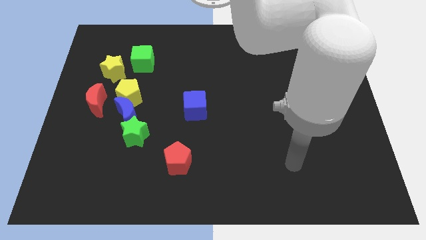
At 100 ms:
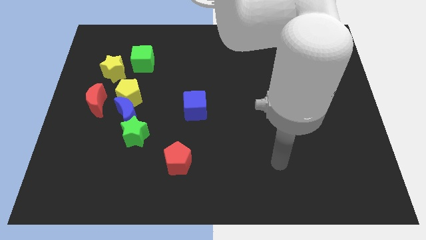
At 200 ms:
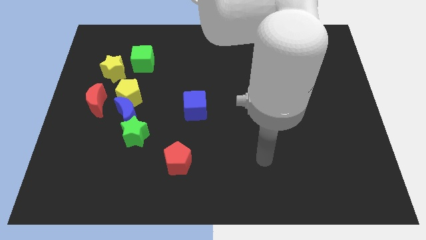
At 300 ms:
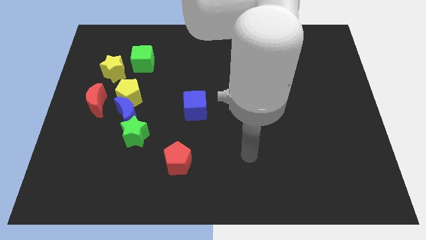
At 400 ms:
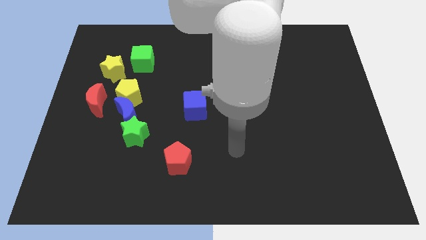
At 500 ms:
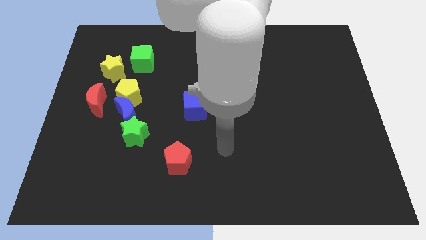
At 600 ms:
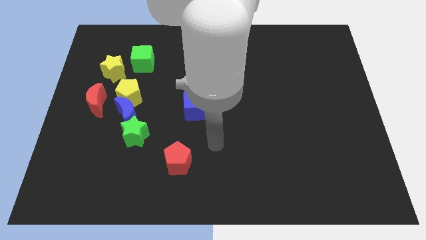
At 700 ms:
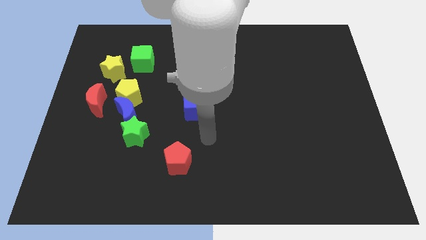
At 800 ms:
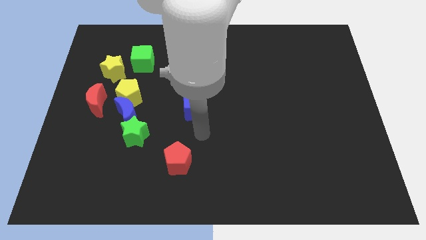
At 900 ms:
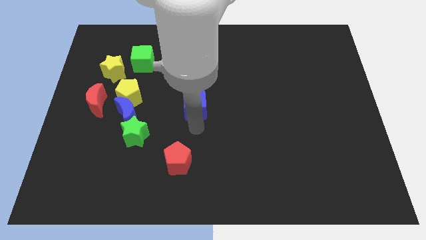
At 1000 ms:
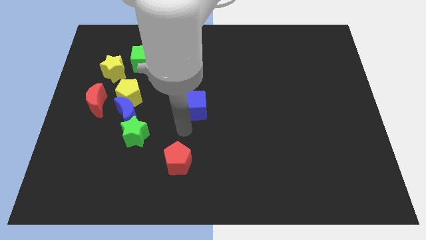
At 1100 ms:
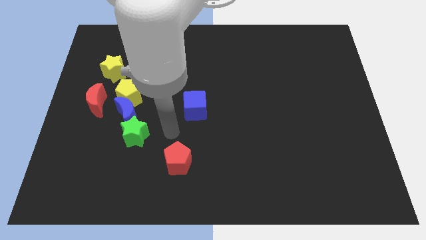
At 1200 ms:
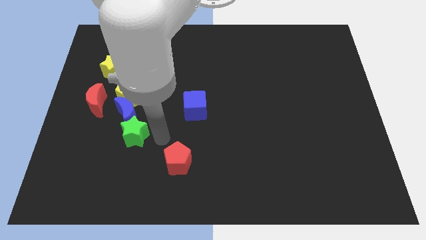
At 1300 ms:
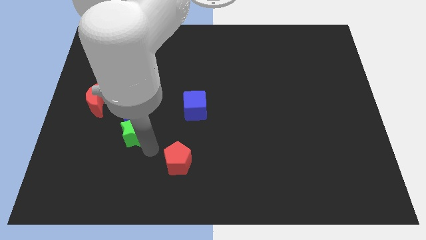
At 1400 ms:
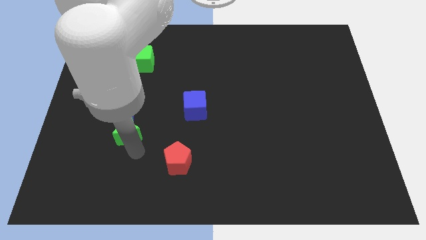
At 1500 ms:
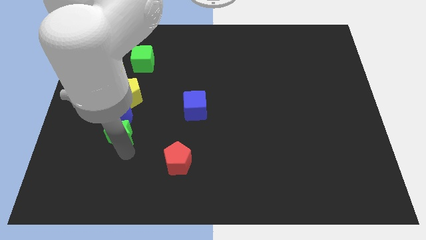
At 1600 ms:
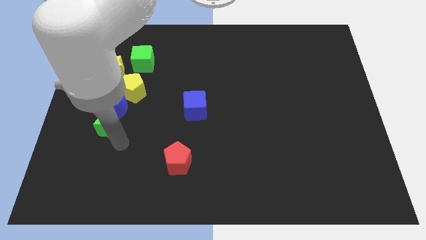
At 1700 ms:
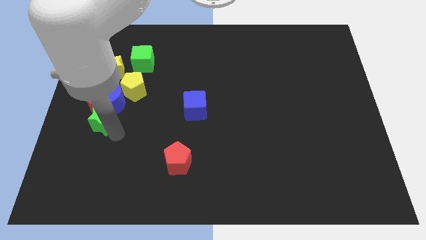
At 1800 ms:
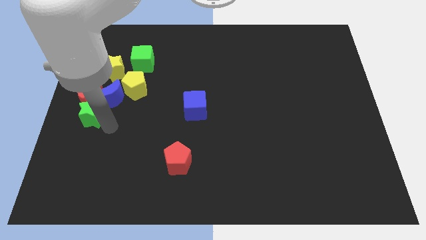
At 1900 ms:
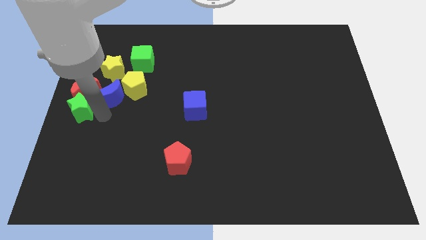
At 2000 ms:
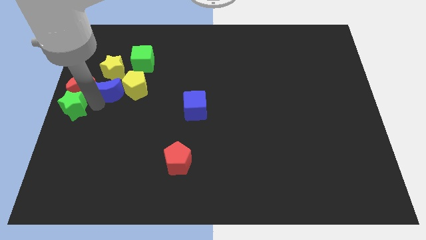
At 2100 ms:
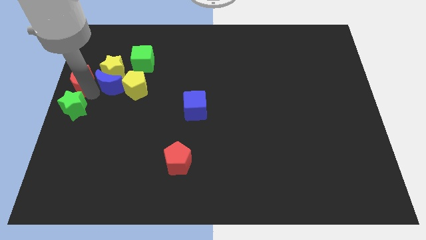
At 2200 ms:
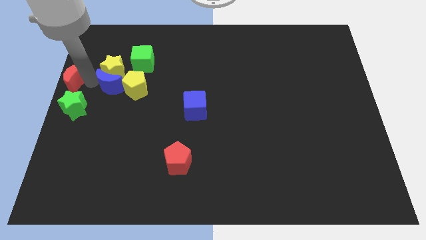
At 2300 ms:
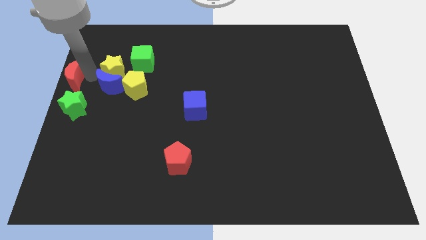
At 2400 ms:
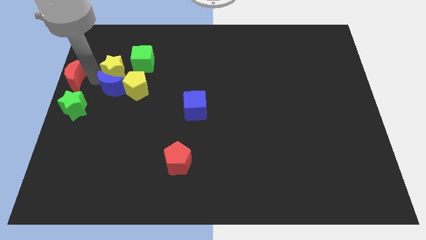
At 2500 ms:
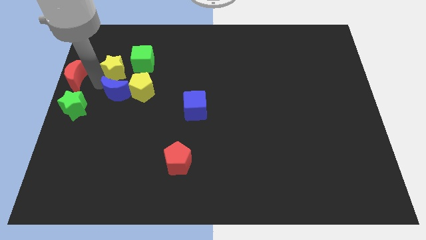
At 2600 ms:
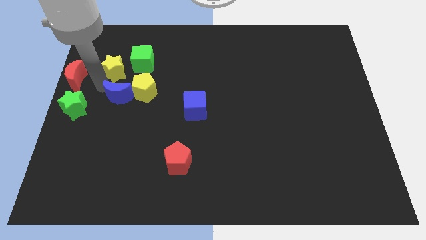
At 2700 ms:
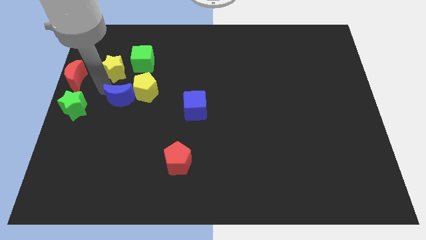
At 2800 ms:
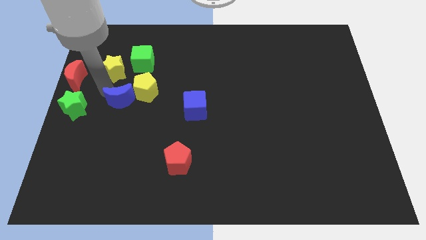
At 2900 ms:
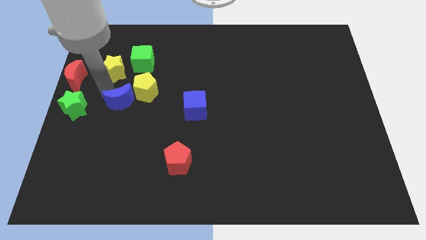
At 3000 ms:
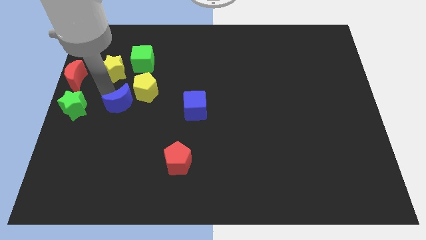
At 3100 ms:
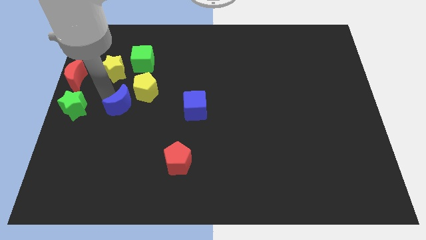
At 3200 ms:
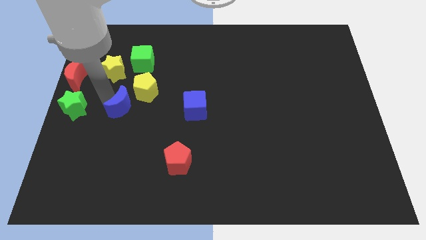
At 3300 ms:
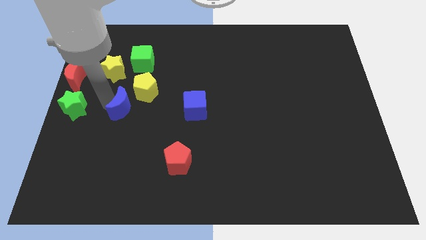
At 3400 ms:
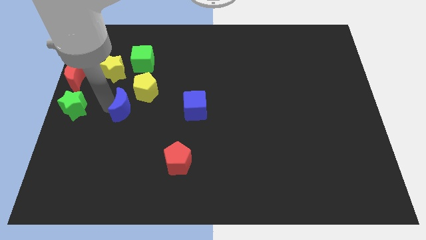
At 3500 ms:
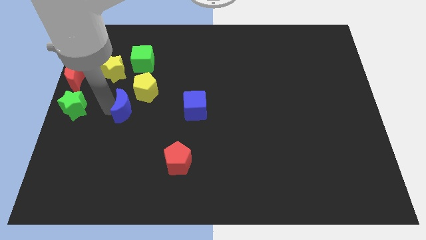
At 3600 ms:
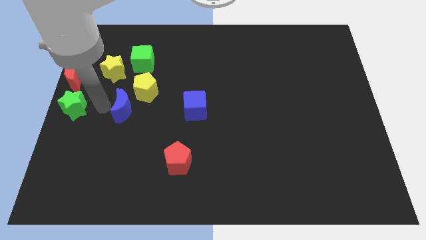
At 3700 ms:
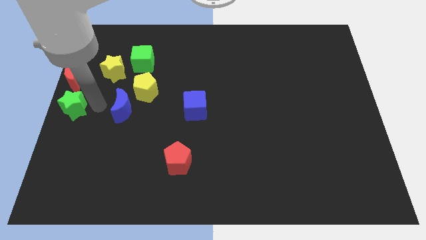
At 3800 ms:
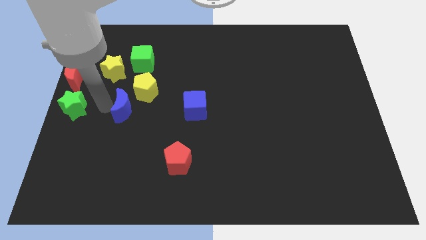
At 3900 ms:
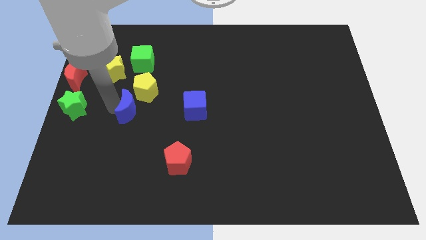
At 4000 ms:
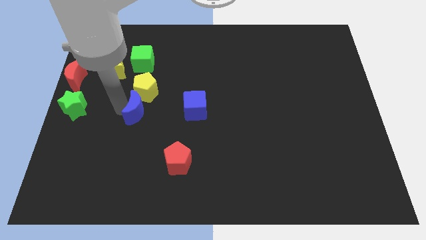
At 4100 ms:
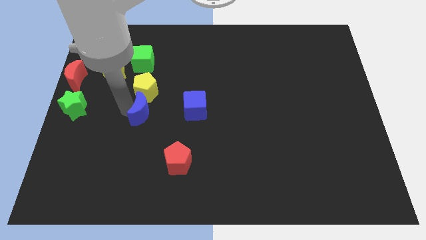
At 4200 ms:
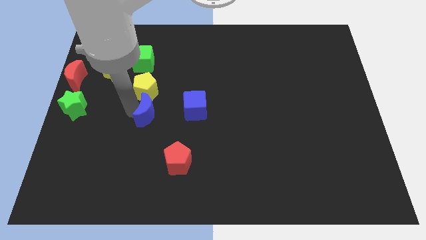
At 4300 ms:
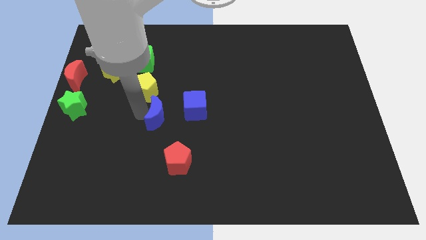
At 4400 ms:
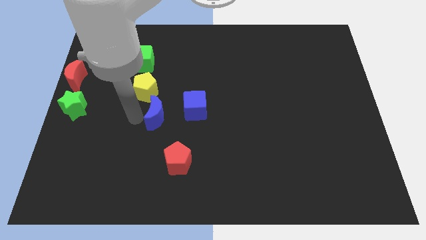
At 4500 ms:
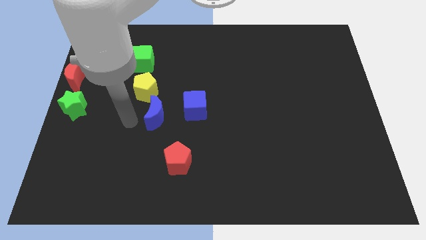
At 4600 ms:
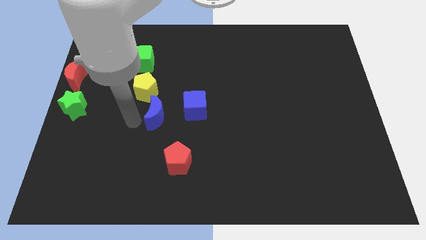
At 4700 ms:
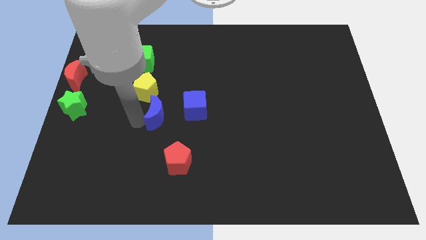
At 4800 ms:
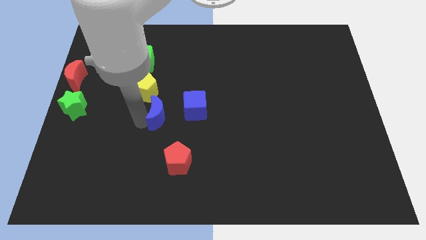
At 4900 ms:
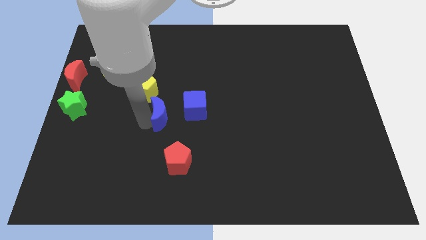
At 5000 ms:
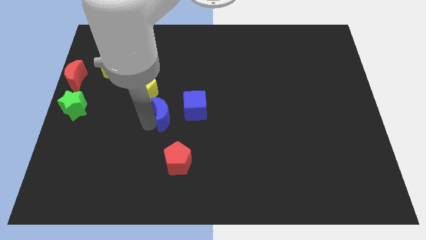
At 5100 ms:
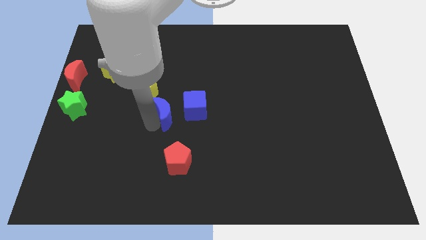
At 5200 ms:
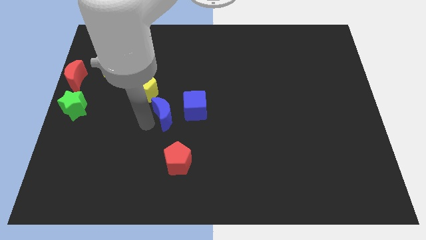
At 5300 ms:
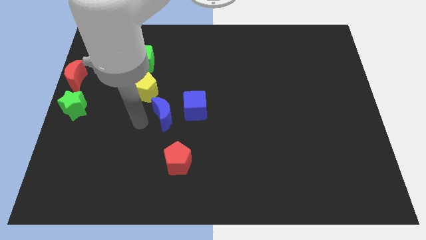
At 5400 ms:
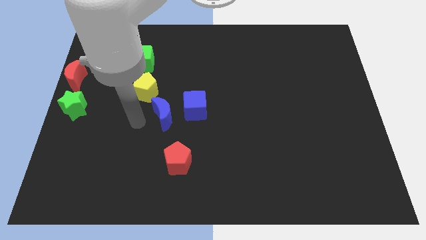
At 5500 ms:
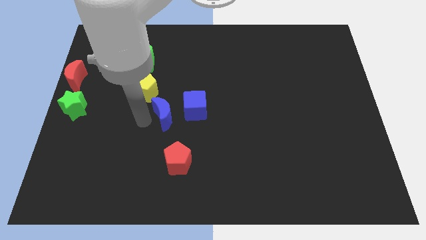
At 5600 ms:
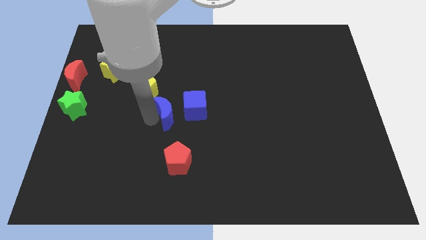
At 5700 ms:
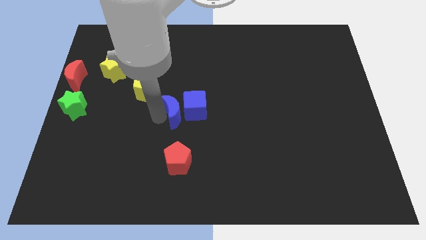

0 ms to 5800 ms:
move the blue moon close to the blue cube

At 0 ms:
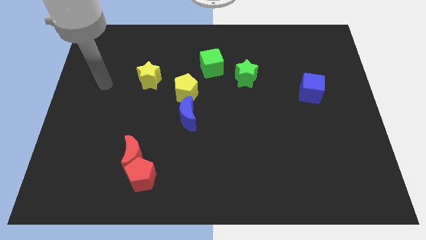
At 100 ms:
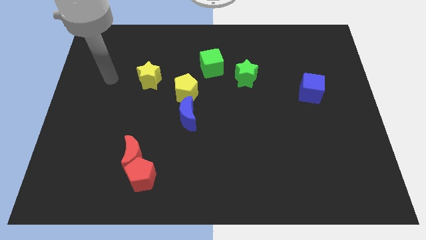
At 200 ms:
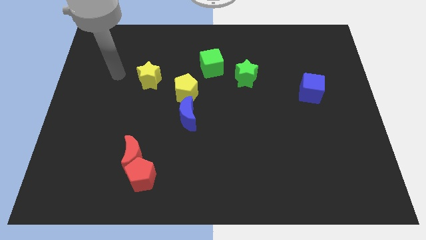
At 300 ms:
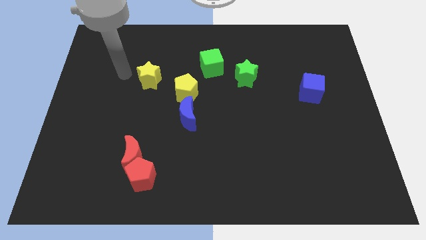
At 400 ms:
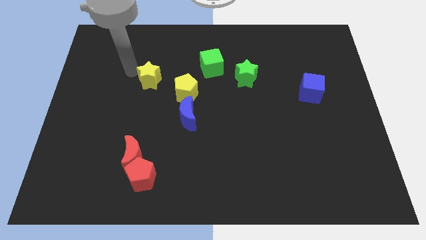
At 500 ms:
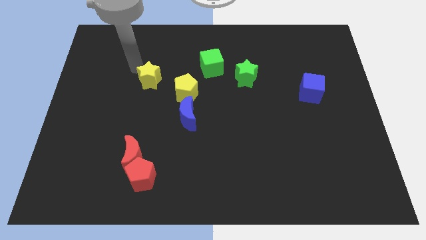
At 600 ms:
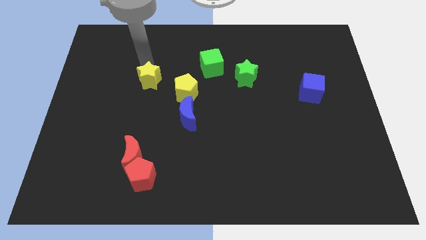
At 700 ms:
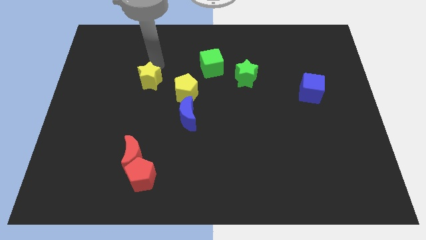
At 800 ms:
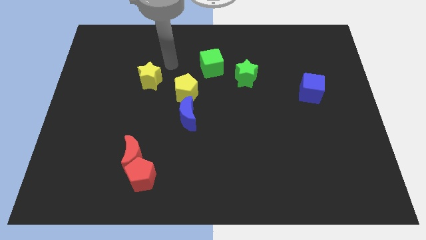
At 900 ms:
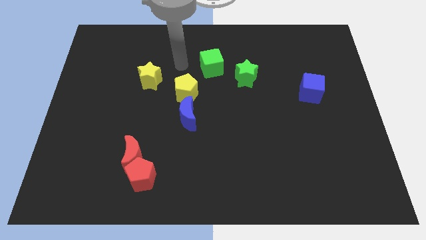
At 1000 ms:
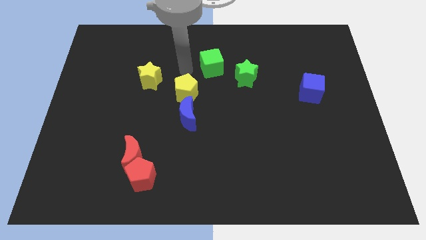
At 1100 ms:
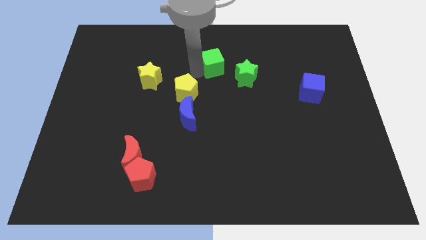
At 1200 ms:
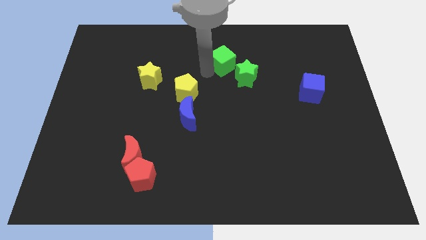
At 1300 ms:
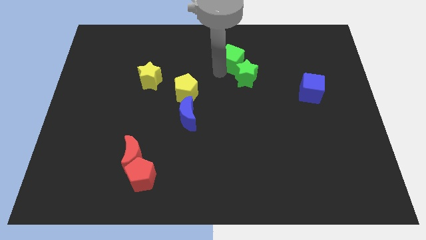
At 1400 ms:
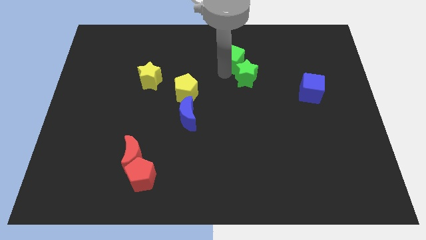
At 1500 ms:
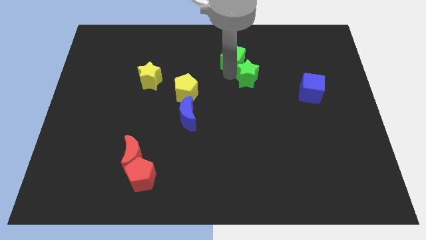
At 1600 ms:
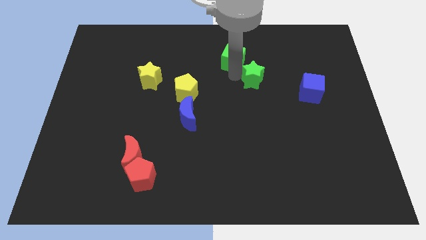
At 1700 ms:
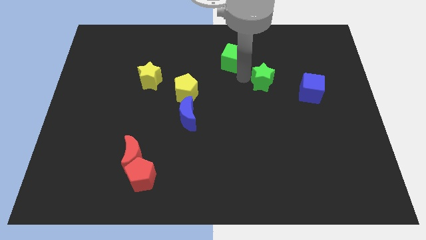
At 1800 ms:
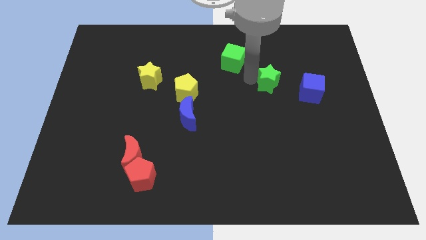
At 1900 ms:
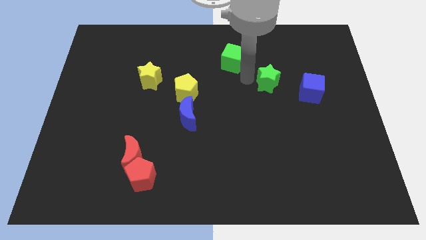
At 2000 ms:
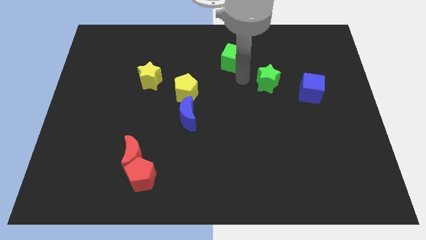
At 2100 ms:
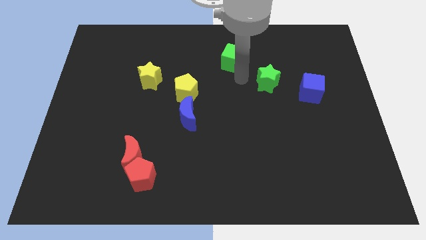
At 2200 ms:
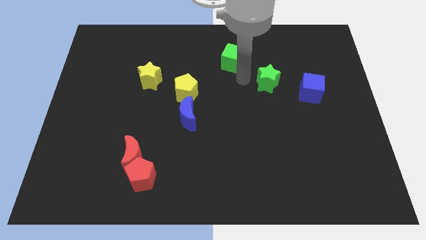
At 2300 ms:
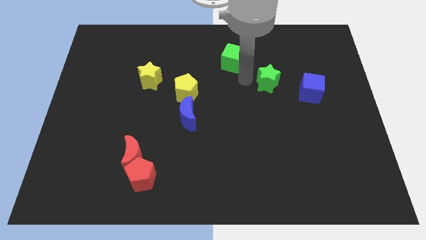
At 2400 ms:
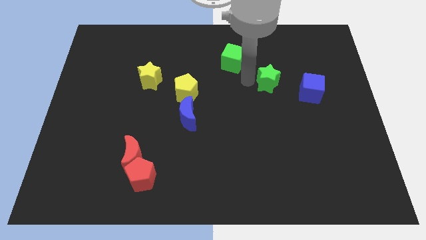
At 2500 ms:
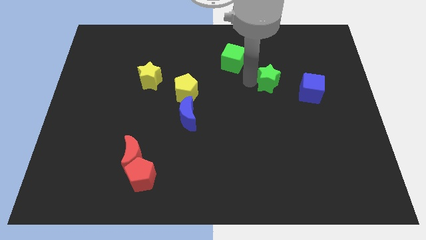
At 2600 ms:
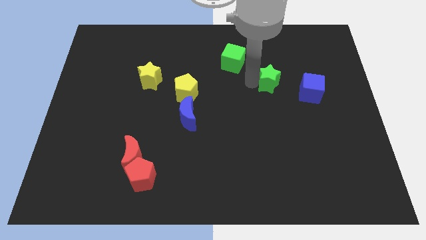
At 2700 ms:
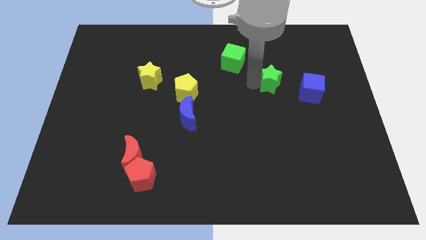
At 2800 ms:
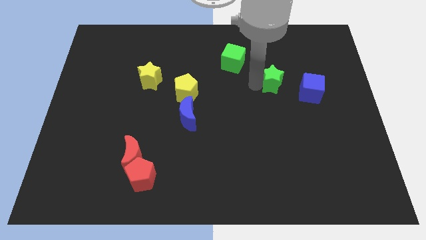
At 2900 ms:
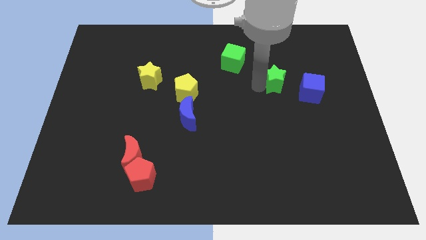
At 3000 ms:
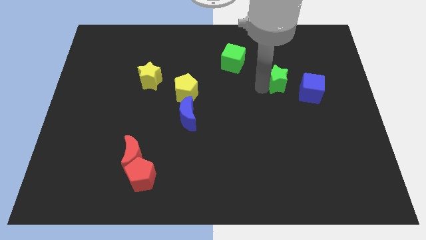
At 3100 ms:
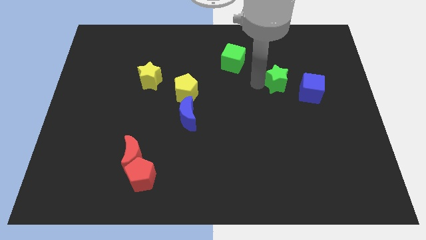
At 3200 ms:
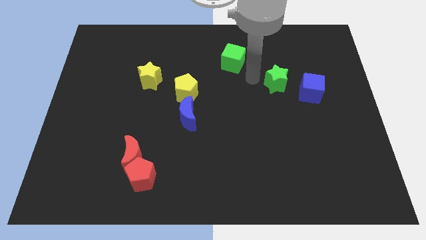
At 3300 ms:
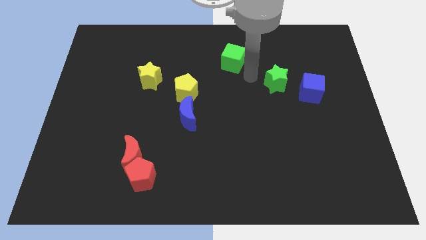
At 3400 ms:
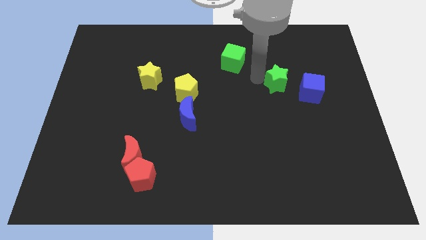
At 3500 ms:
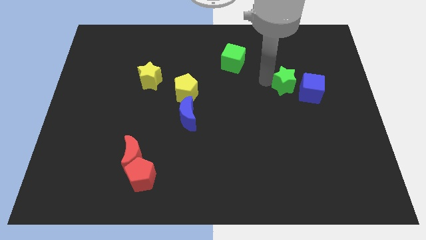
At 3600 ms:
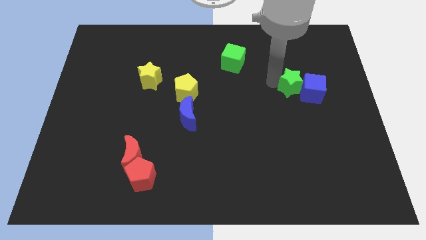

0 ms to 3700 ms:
put the green star to the blue cube
